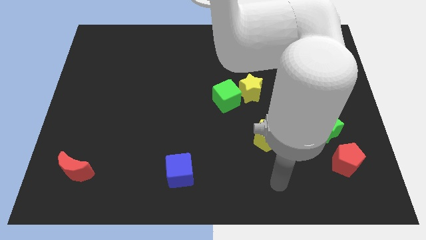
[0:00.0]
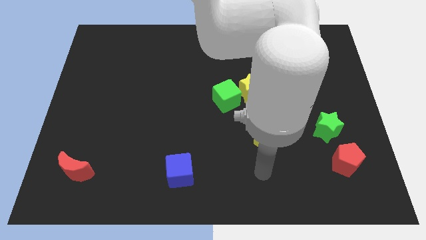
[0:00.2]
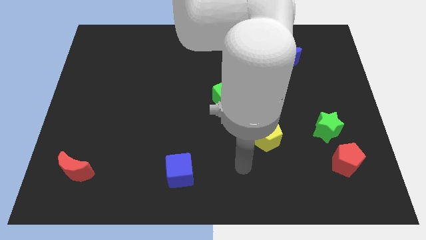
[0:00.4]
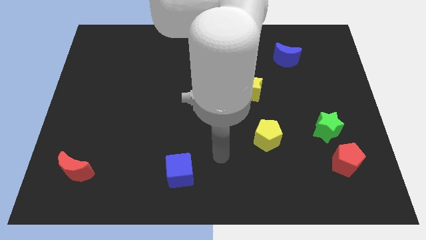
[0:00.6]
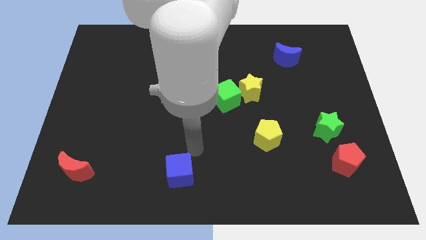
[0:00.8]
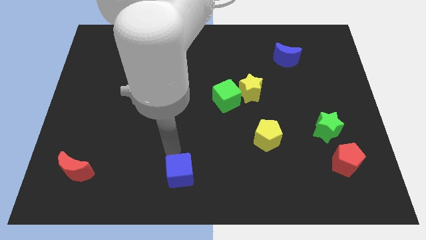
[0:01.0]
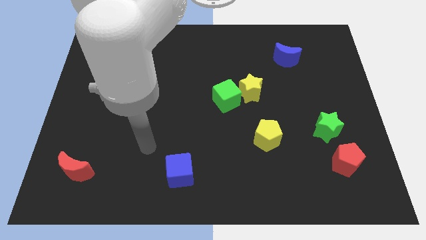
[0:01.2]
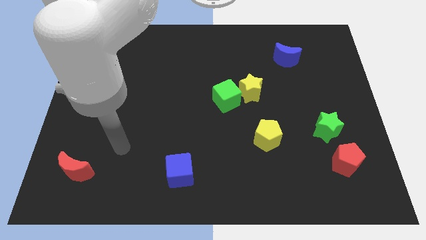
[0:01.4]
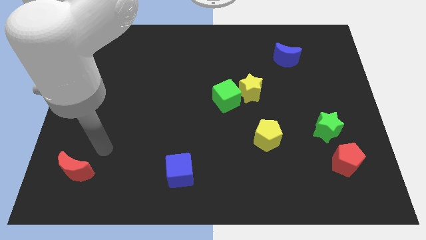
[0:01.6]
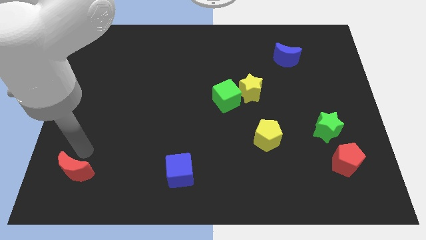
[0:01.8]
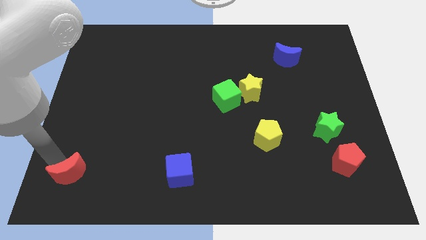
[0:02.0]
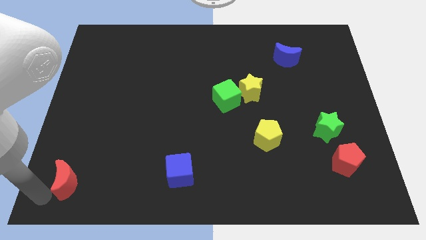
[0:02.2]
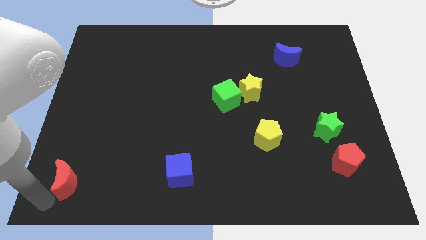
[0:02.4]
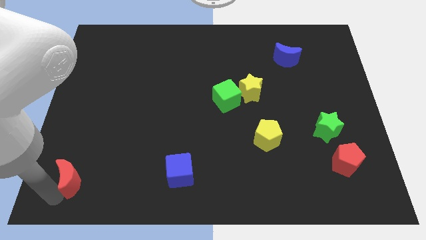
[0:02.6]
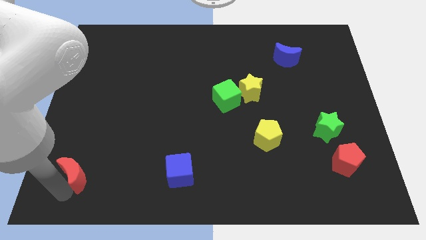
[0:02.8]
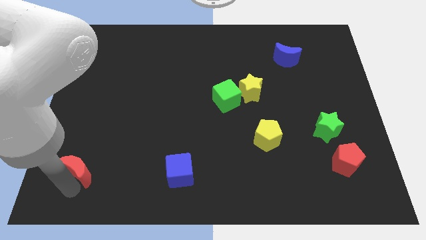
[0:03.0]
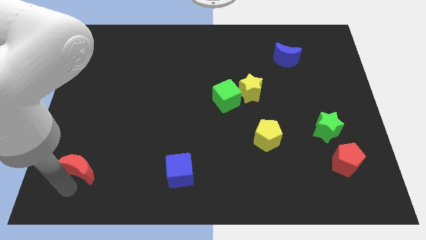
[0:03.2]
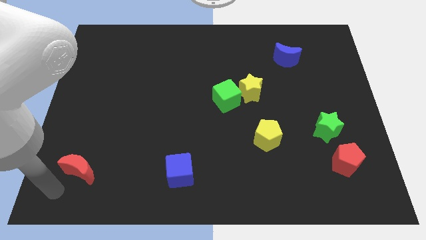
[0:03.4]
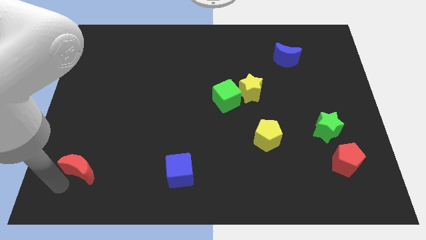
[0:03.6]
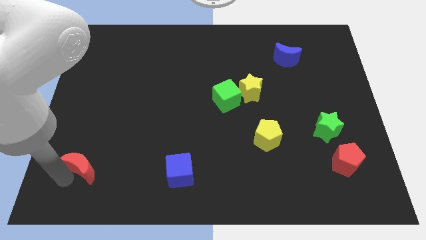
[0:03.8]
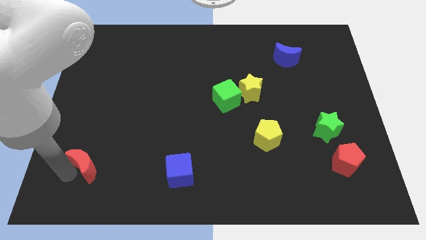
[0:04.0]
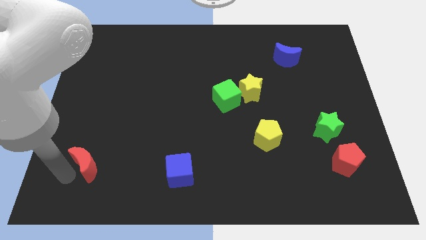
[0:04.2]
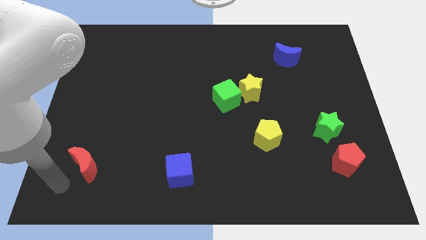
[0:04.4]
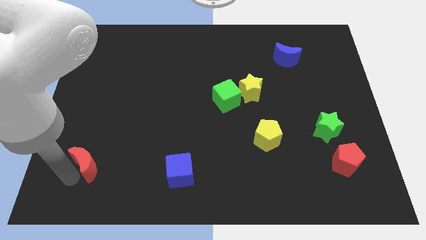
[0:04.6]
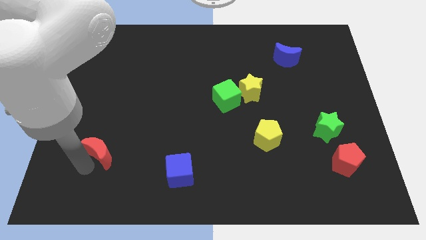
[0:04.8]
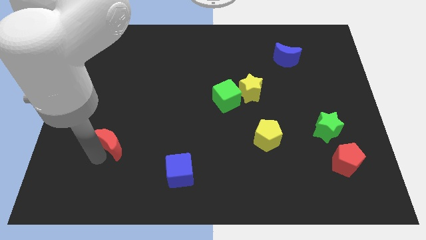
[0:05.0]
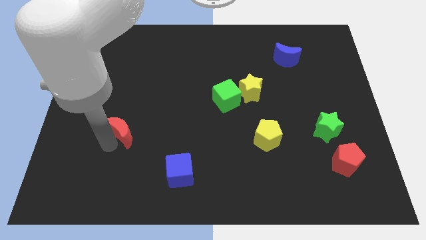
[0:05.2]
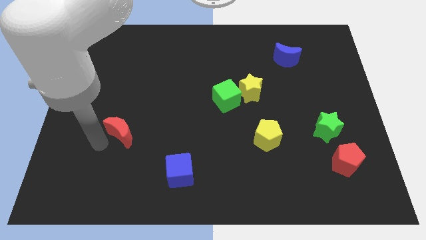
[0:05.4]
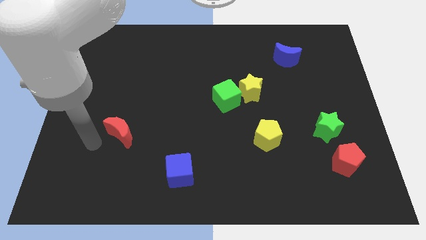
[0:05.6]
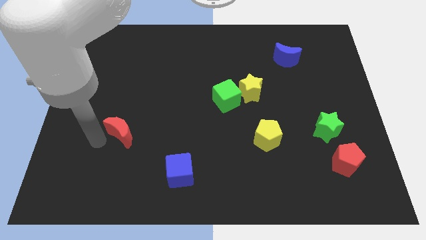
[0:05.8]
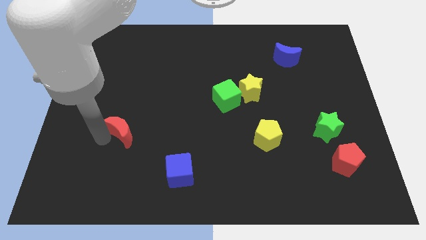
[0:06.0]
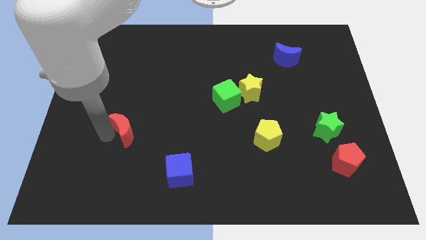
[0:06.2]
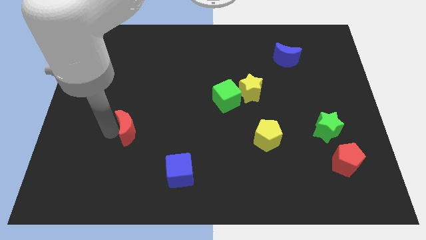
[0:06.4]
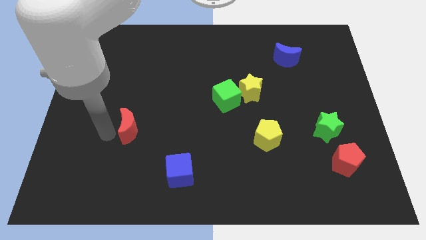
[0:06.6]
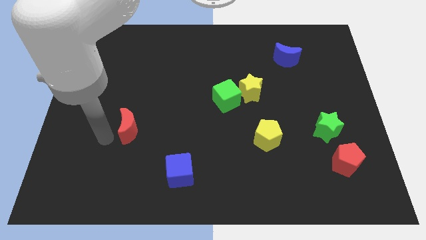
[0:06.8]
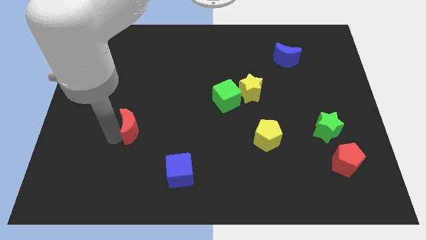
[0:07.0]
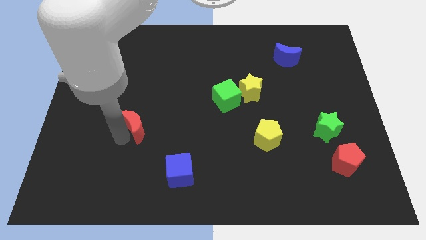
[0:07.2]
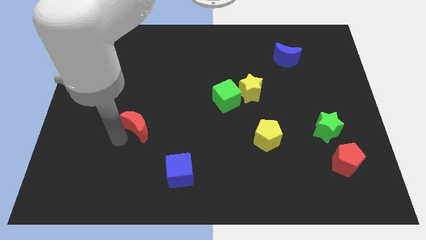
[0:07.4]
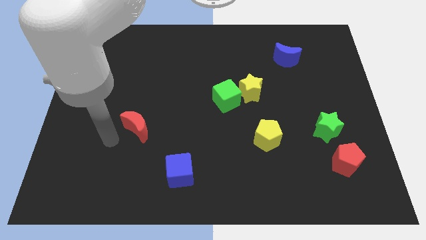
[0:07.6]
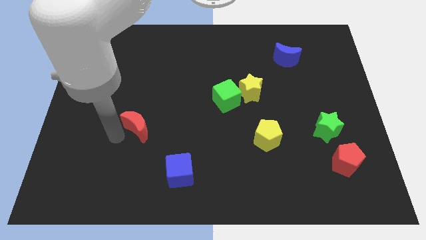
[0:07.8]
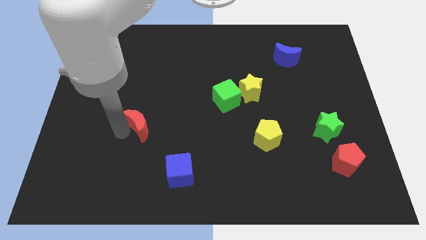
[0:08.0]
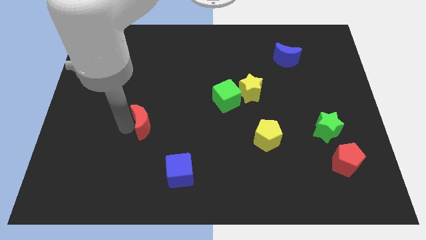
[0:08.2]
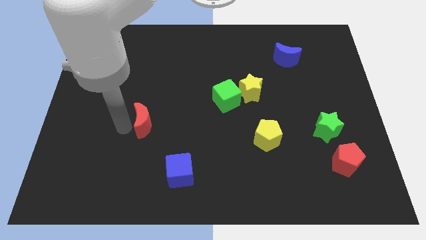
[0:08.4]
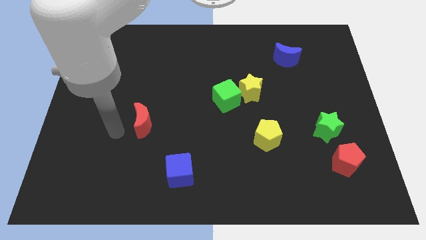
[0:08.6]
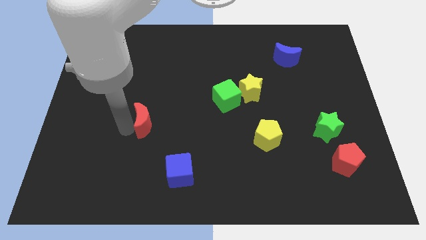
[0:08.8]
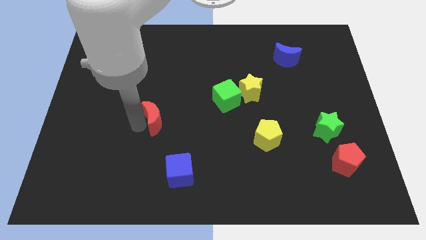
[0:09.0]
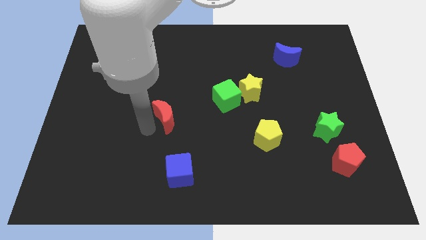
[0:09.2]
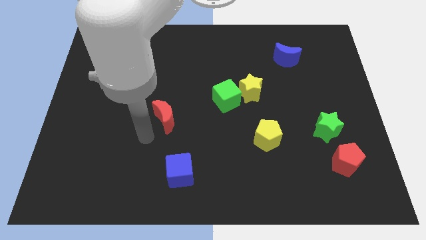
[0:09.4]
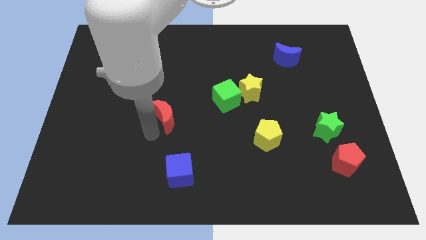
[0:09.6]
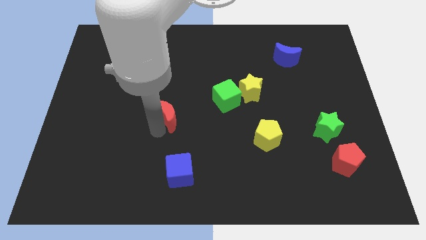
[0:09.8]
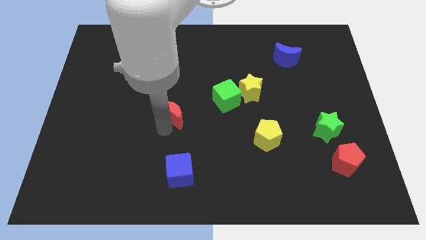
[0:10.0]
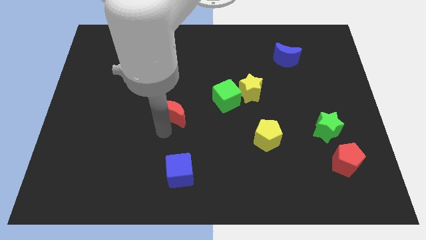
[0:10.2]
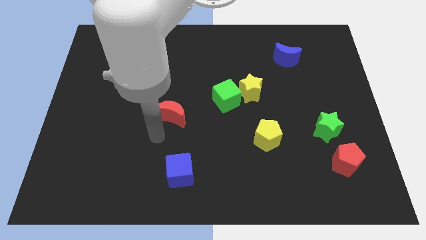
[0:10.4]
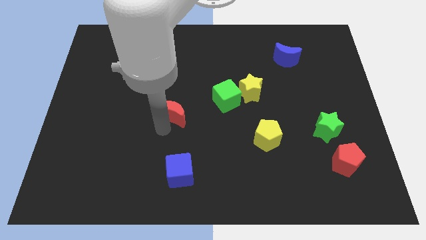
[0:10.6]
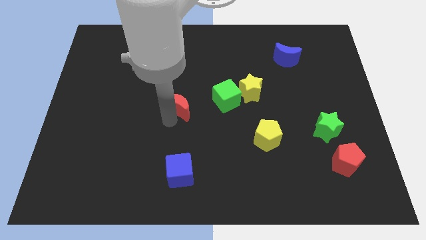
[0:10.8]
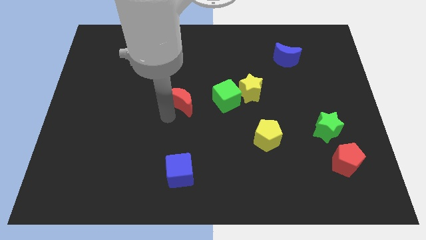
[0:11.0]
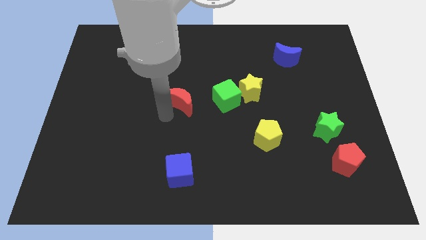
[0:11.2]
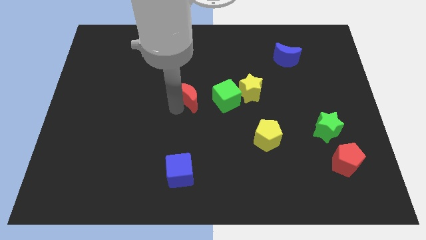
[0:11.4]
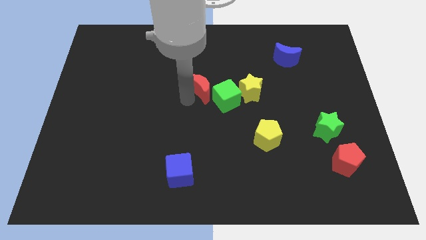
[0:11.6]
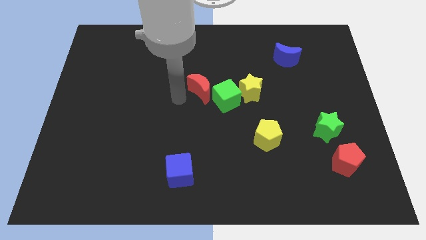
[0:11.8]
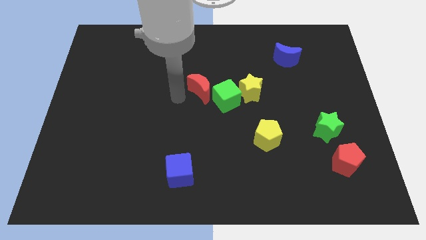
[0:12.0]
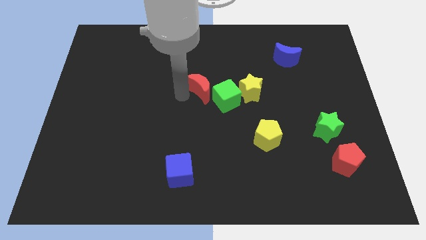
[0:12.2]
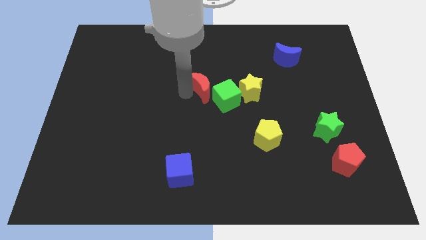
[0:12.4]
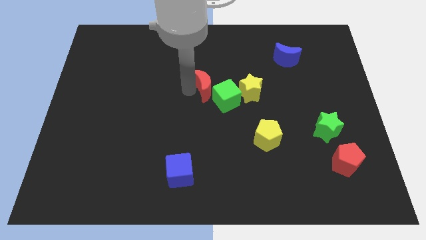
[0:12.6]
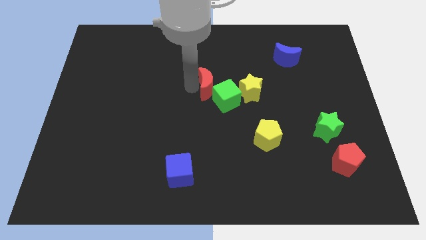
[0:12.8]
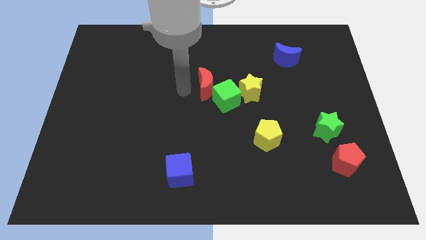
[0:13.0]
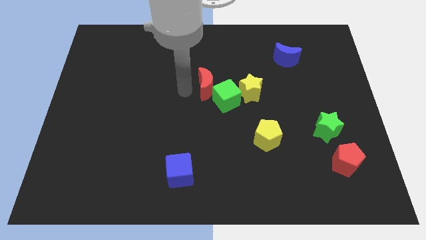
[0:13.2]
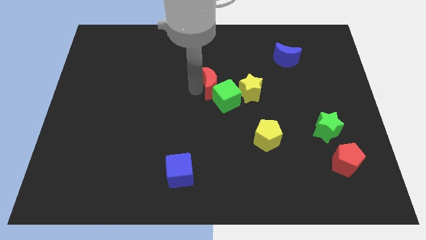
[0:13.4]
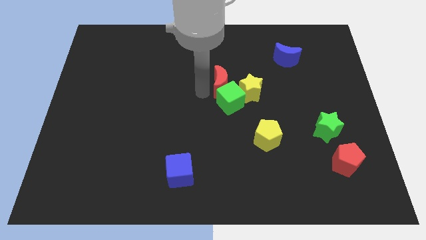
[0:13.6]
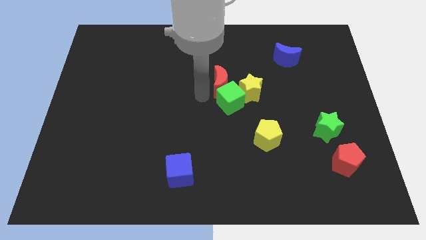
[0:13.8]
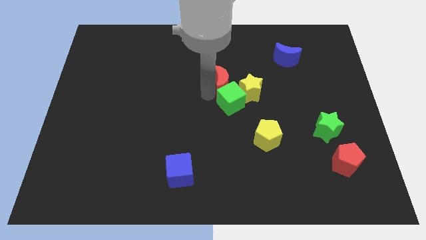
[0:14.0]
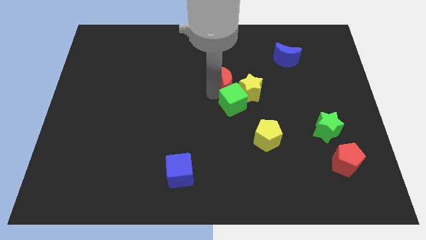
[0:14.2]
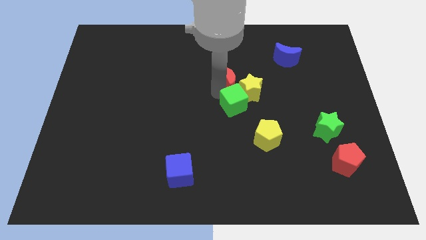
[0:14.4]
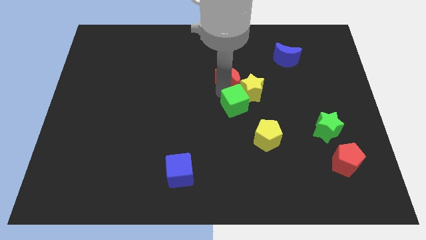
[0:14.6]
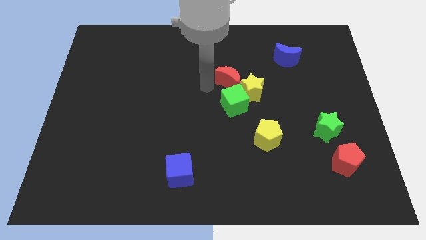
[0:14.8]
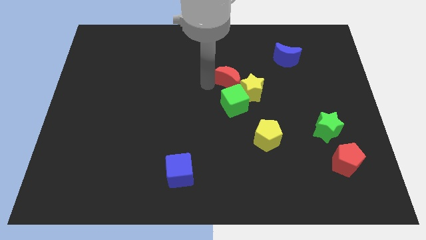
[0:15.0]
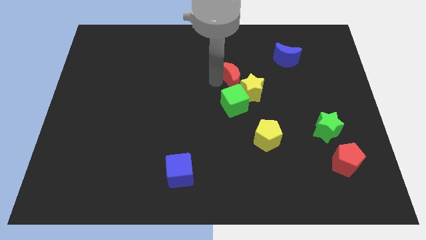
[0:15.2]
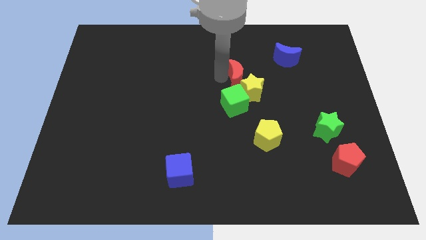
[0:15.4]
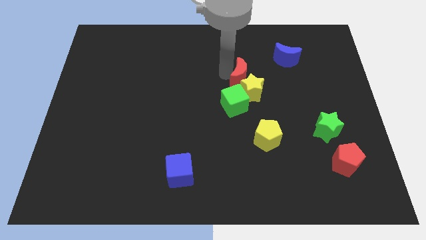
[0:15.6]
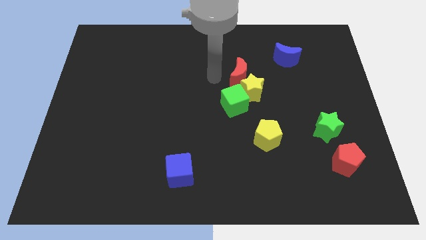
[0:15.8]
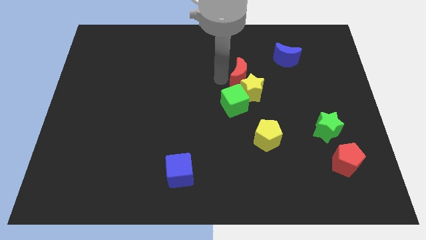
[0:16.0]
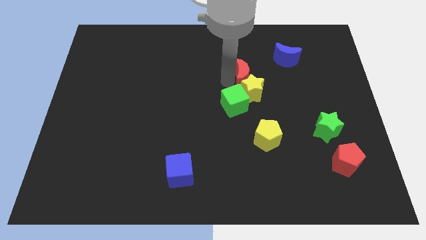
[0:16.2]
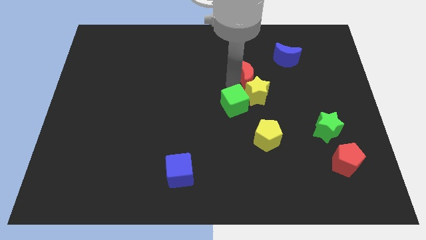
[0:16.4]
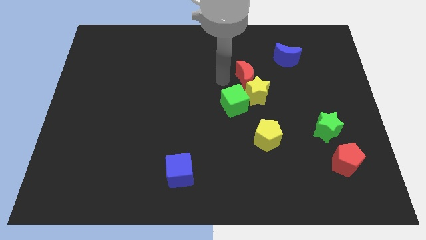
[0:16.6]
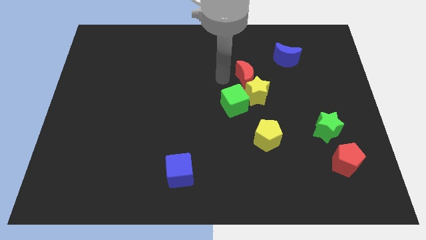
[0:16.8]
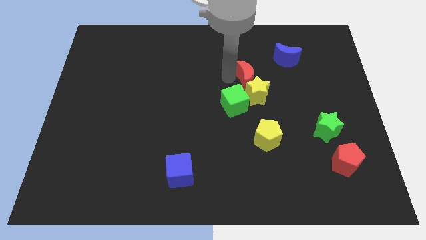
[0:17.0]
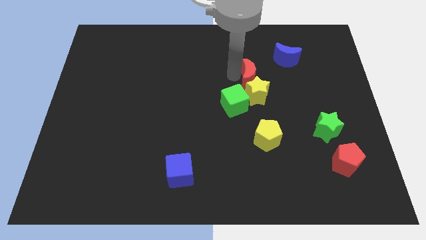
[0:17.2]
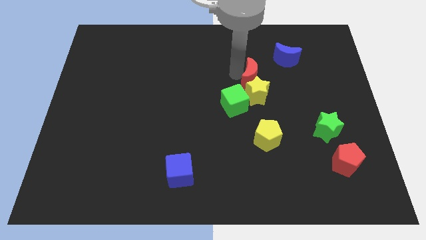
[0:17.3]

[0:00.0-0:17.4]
slide the red moon diagonally up and to the right of the yellow star
